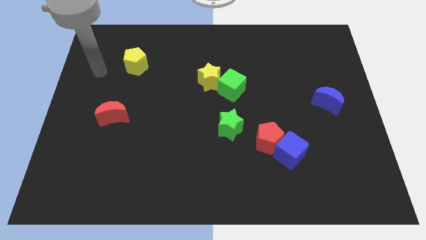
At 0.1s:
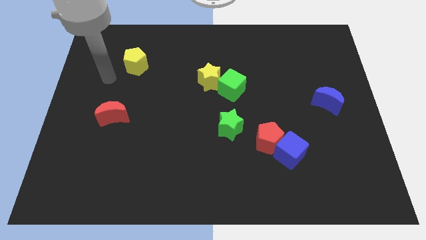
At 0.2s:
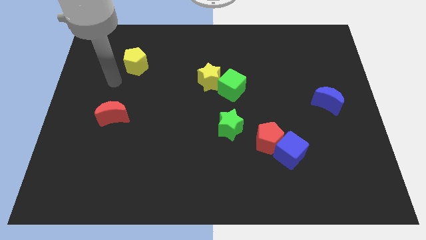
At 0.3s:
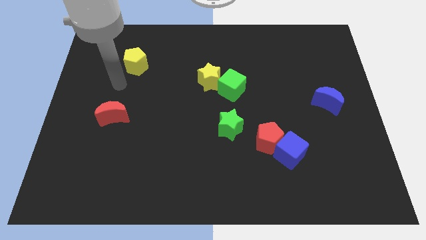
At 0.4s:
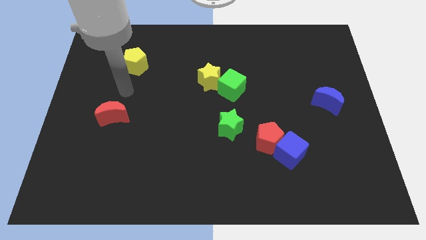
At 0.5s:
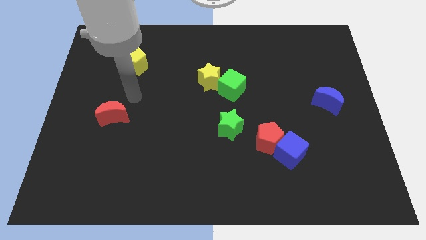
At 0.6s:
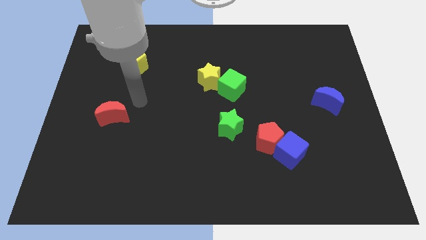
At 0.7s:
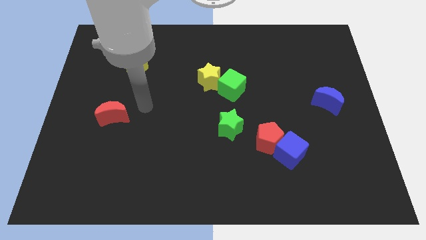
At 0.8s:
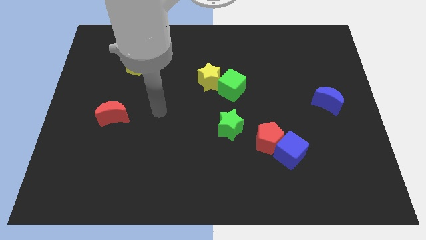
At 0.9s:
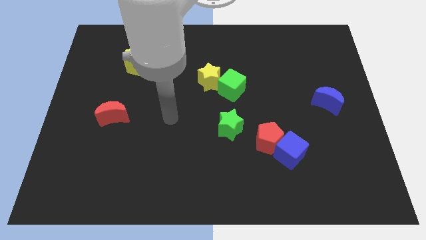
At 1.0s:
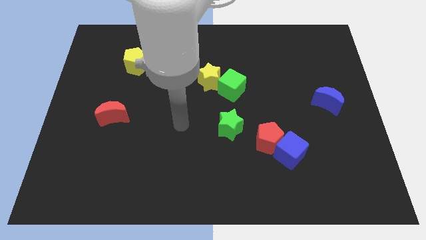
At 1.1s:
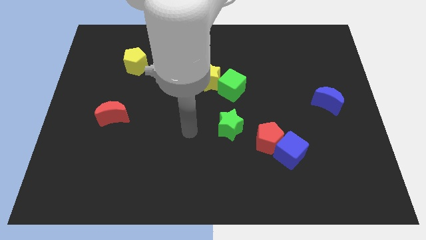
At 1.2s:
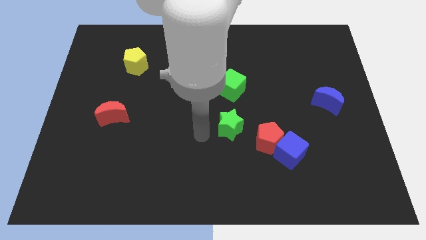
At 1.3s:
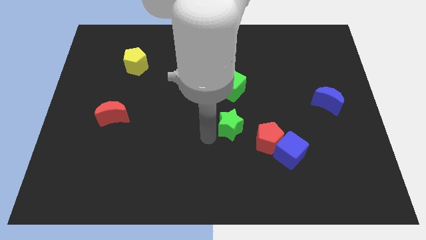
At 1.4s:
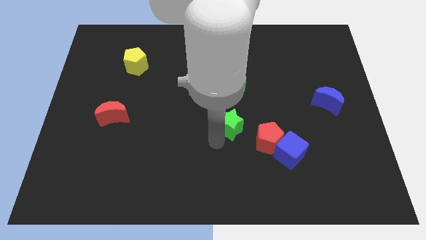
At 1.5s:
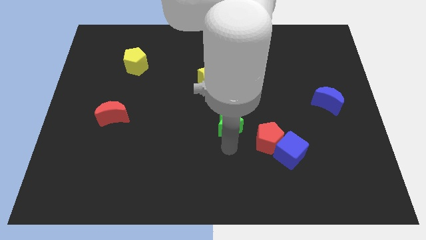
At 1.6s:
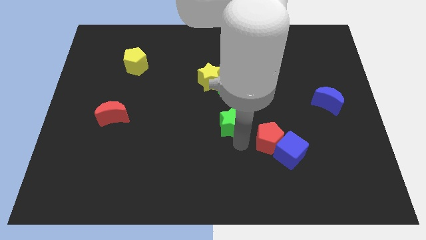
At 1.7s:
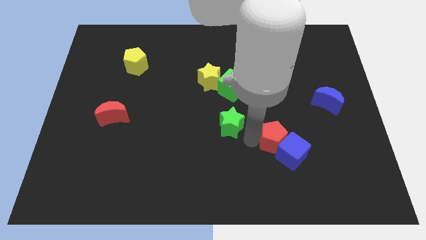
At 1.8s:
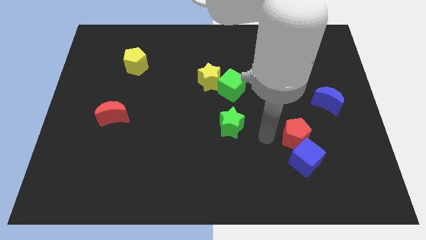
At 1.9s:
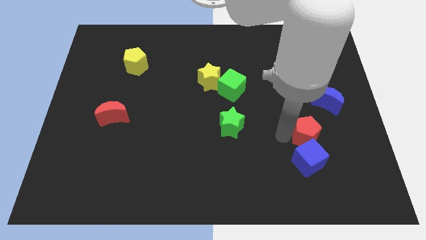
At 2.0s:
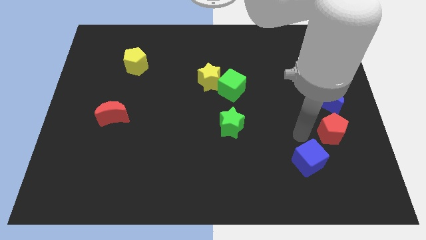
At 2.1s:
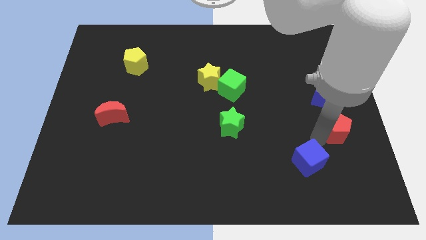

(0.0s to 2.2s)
move the blue cube away from the red pentagon

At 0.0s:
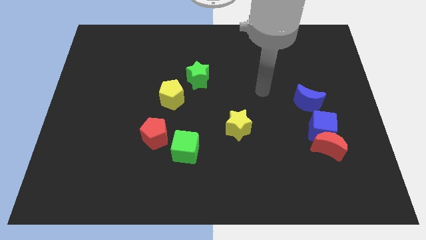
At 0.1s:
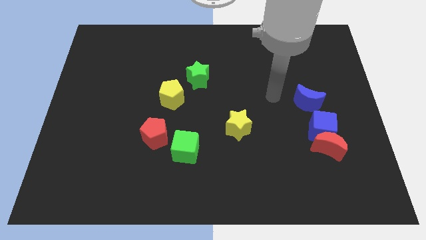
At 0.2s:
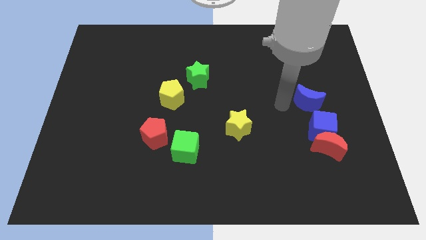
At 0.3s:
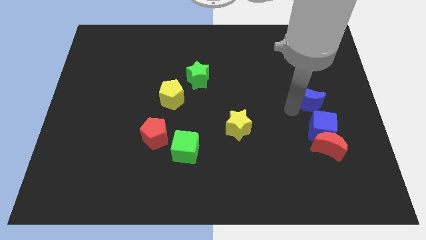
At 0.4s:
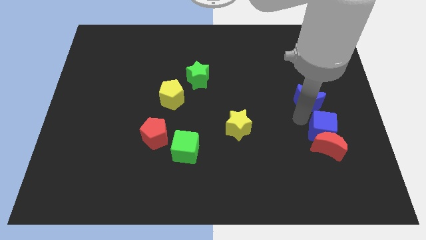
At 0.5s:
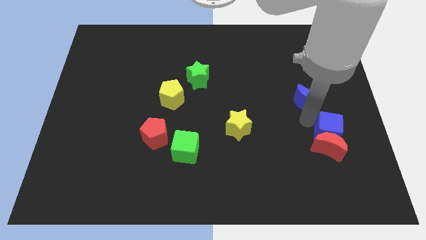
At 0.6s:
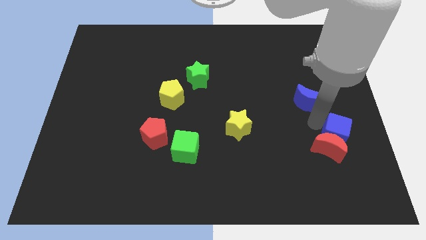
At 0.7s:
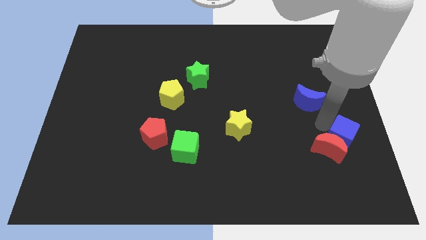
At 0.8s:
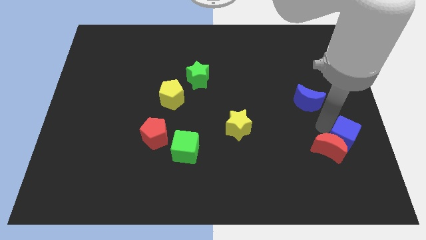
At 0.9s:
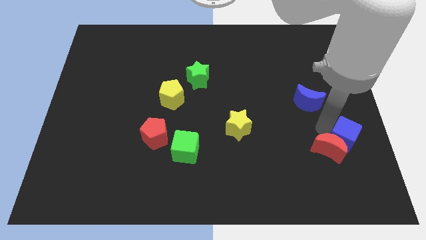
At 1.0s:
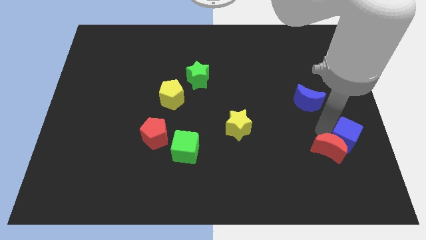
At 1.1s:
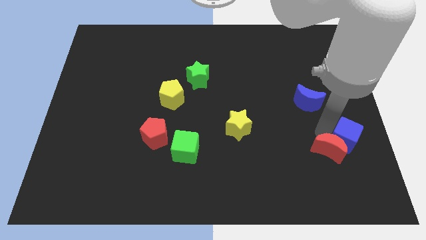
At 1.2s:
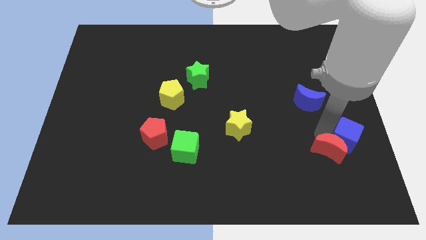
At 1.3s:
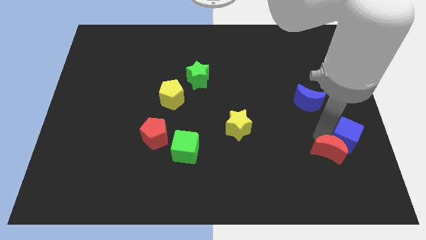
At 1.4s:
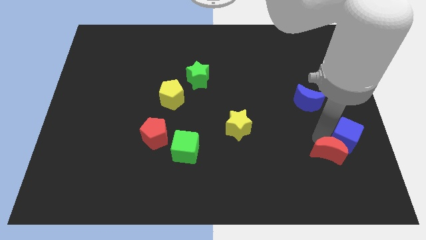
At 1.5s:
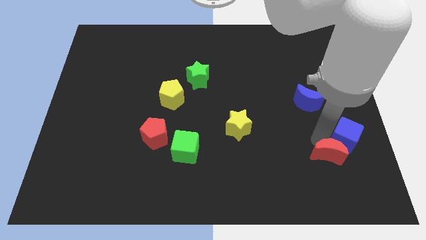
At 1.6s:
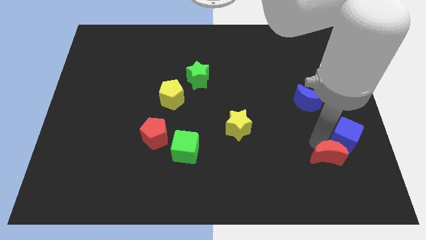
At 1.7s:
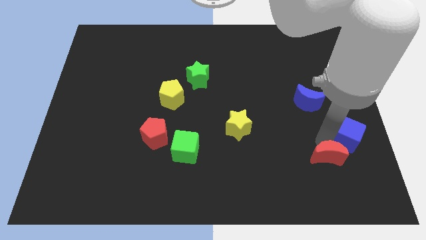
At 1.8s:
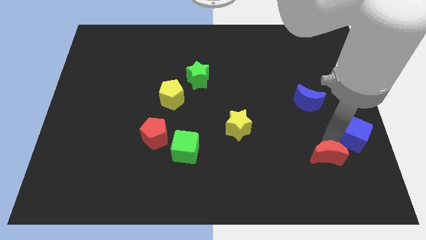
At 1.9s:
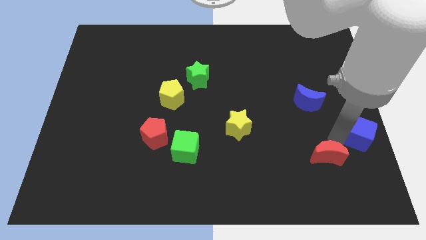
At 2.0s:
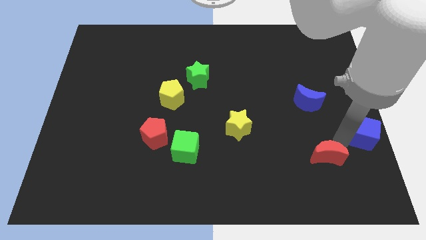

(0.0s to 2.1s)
move the red moon away from the blue cube

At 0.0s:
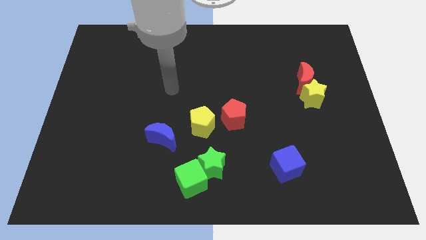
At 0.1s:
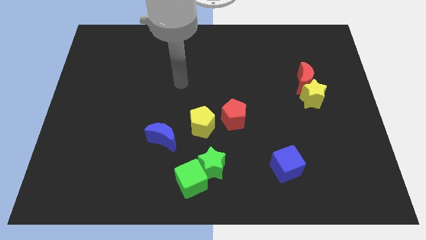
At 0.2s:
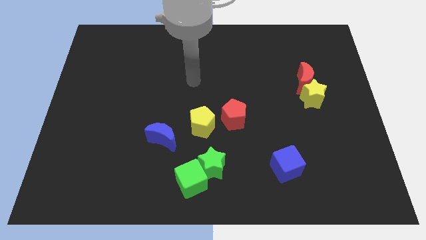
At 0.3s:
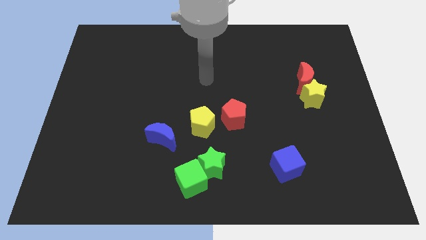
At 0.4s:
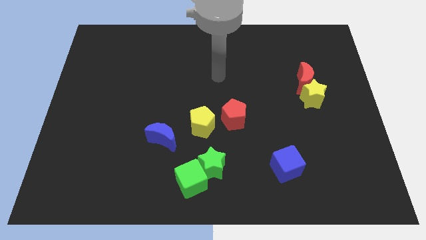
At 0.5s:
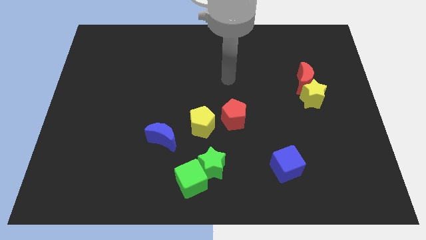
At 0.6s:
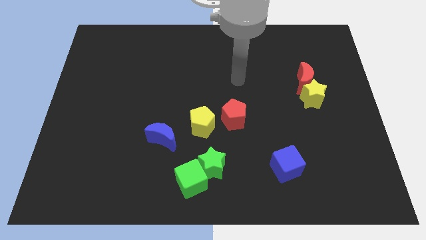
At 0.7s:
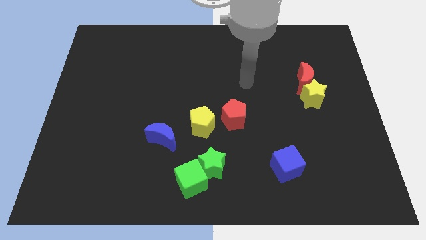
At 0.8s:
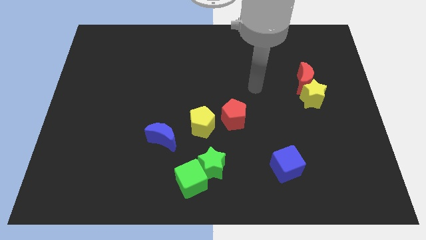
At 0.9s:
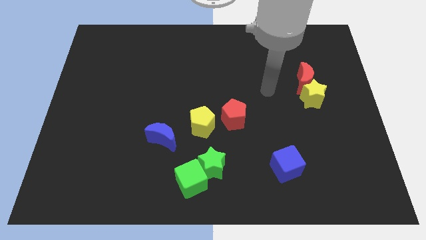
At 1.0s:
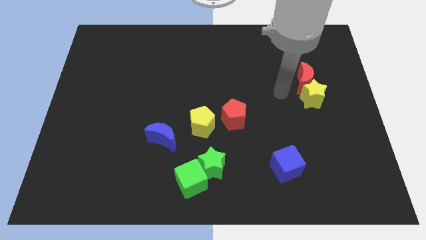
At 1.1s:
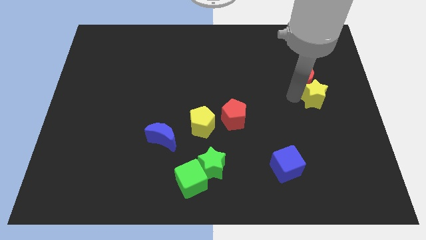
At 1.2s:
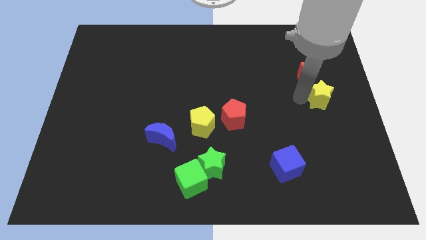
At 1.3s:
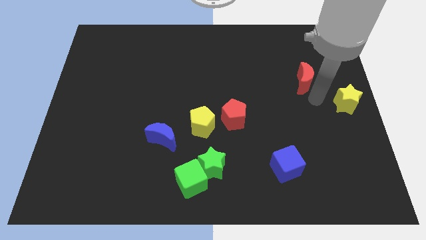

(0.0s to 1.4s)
separate the red moon from the yellow star

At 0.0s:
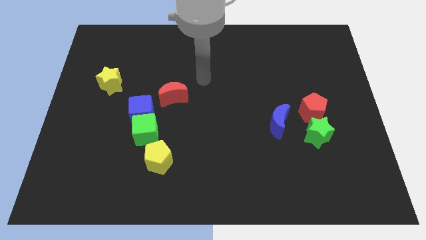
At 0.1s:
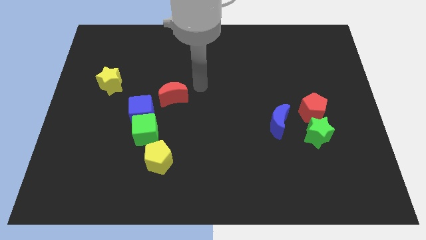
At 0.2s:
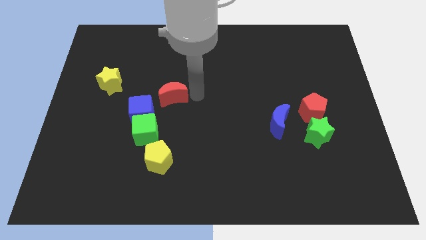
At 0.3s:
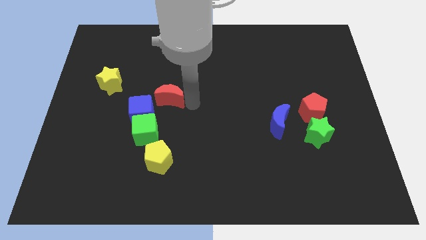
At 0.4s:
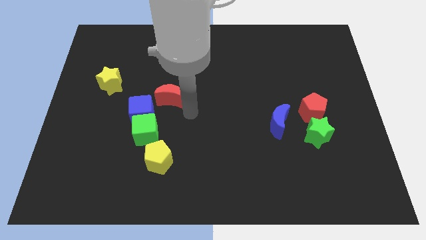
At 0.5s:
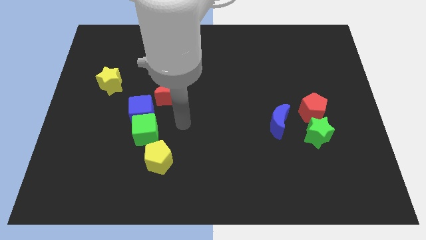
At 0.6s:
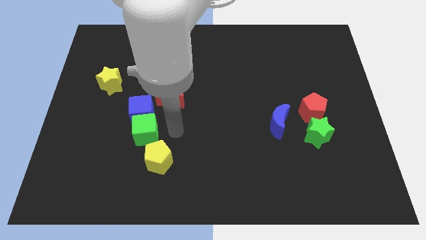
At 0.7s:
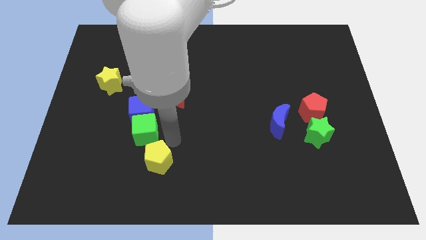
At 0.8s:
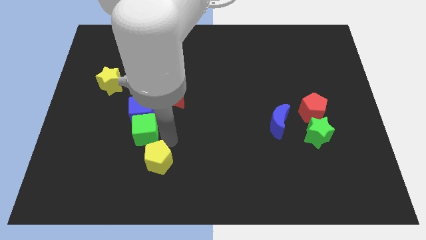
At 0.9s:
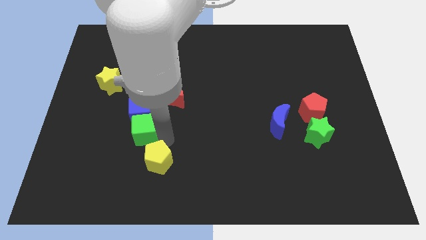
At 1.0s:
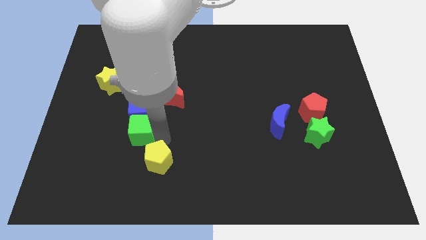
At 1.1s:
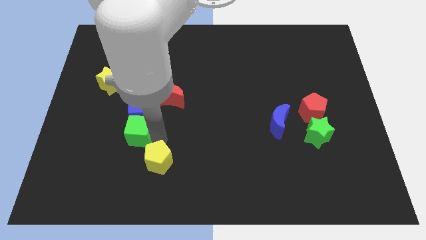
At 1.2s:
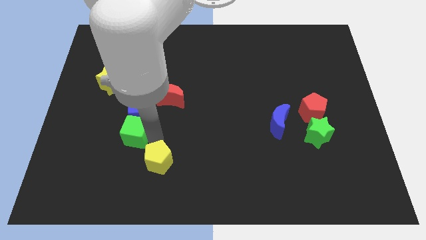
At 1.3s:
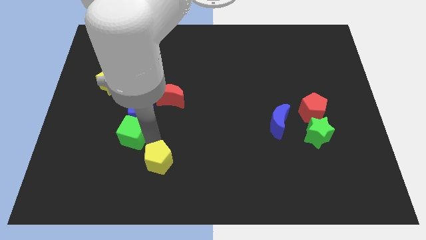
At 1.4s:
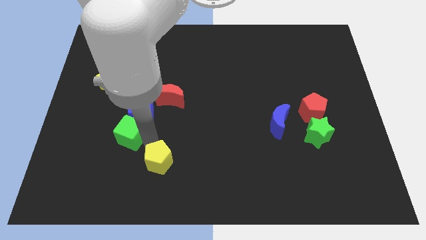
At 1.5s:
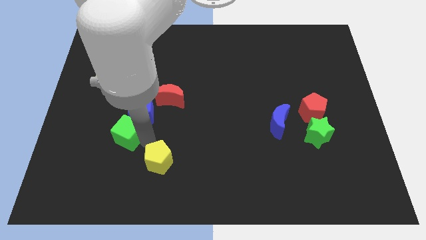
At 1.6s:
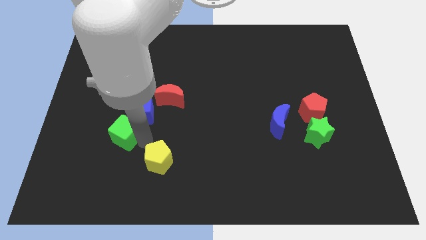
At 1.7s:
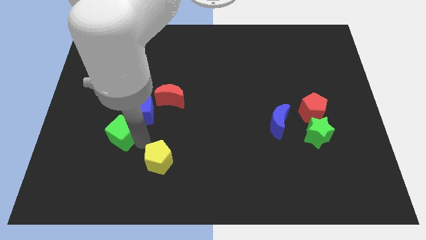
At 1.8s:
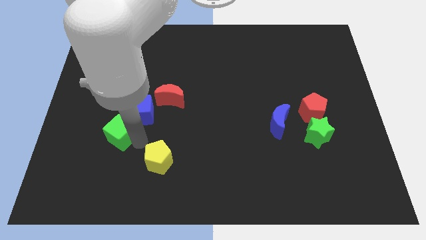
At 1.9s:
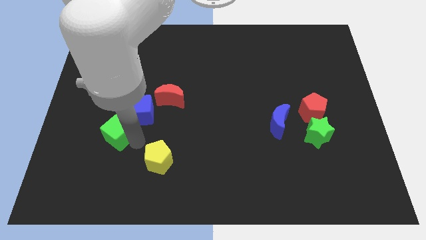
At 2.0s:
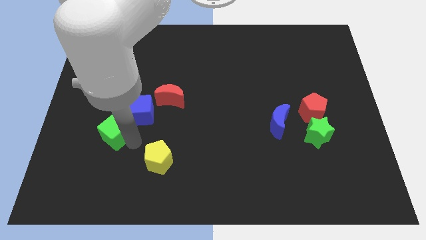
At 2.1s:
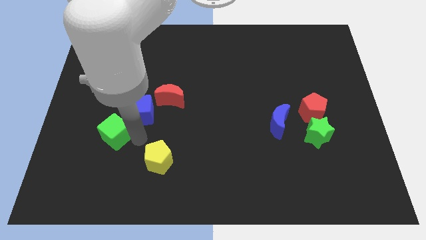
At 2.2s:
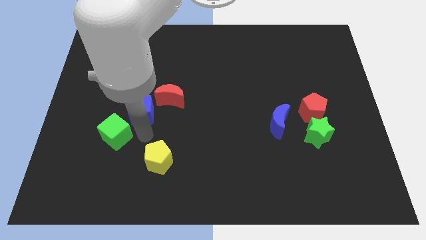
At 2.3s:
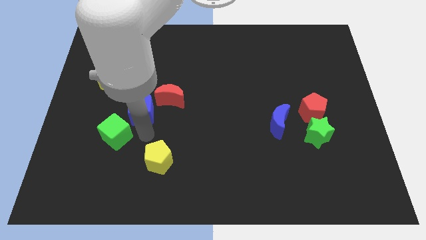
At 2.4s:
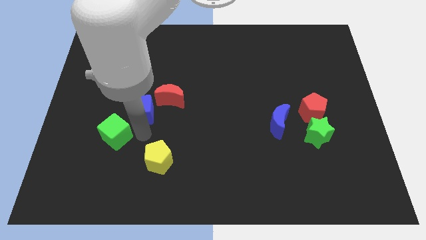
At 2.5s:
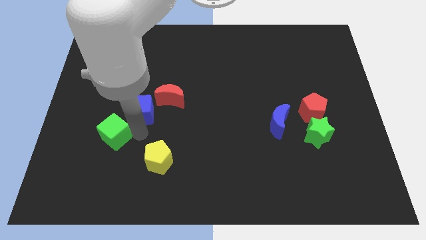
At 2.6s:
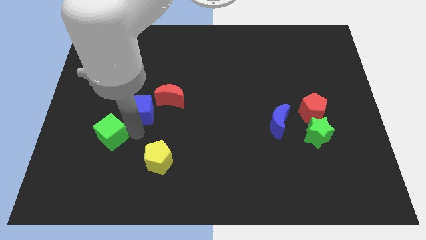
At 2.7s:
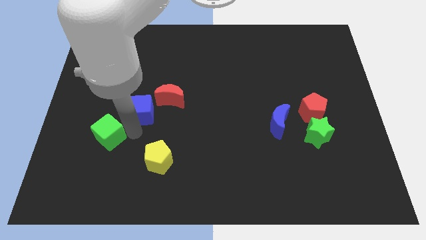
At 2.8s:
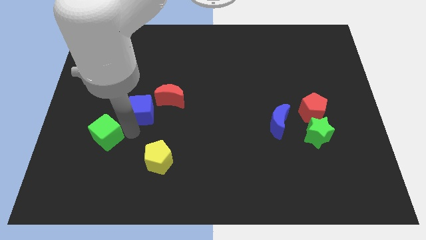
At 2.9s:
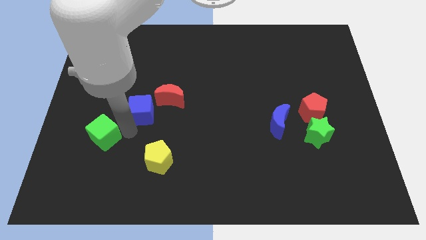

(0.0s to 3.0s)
pull the green cube apart from the blue cube and yellow pentagon

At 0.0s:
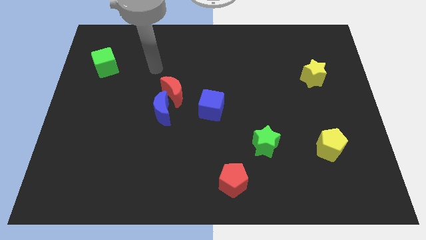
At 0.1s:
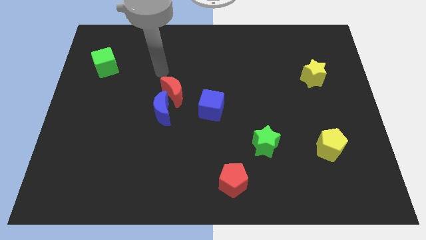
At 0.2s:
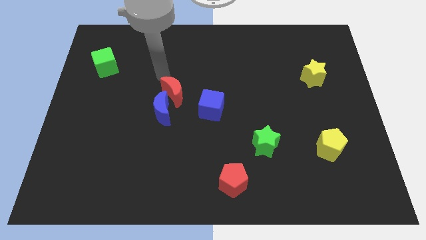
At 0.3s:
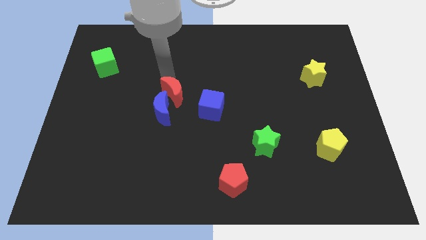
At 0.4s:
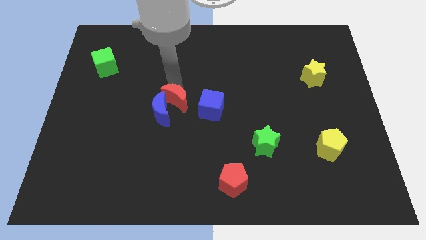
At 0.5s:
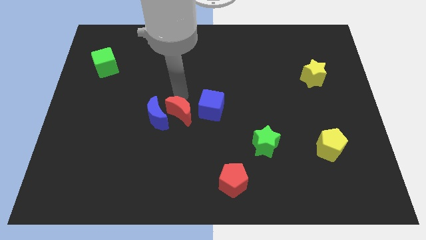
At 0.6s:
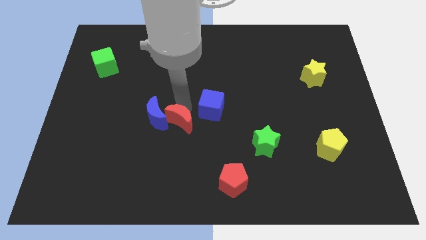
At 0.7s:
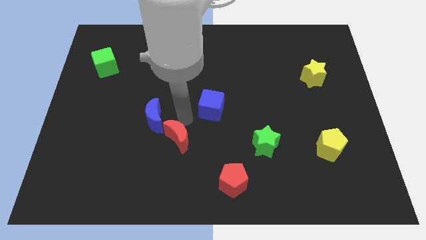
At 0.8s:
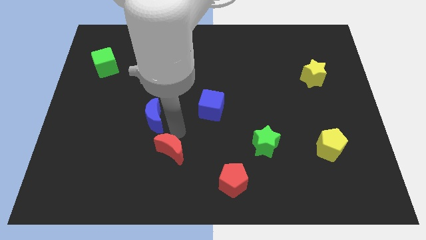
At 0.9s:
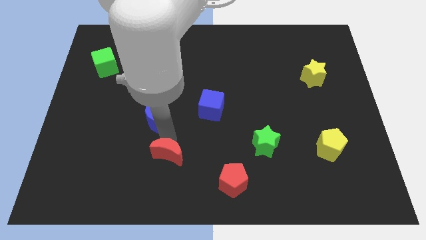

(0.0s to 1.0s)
pull the blue moon apart from the red moon
